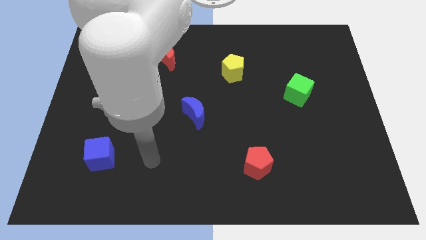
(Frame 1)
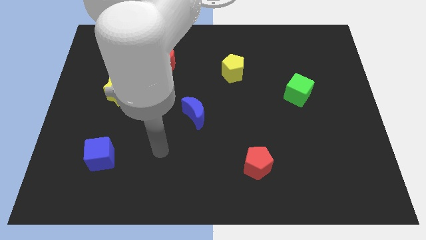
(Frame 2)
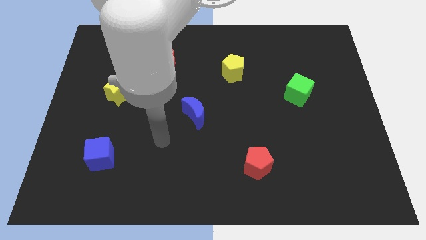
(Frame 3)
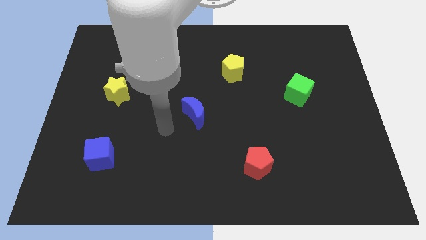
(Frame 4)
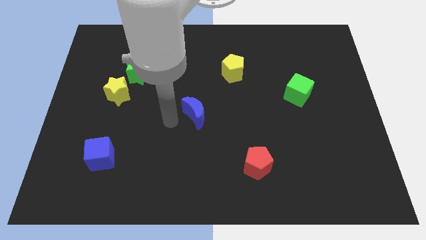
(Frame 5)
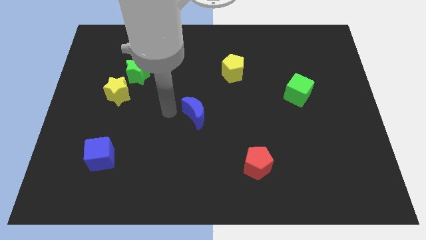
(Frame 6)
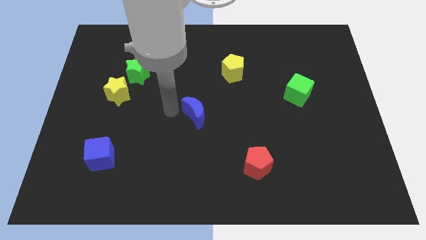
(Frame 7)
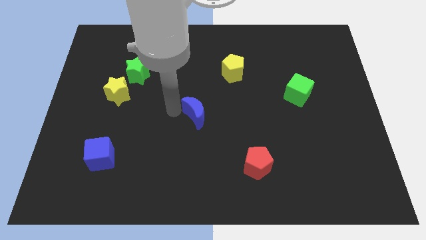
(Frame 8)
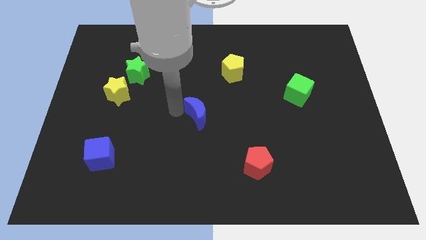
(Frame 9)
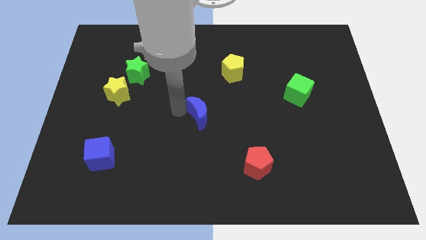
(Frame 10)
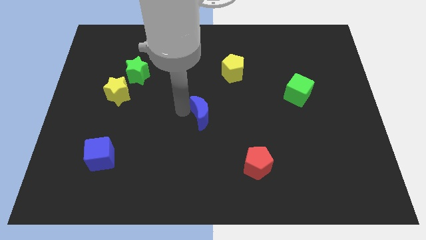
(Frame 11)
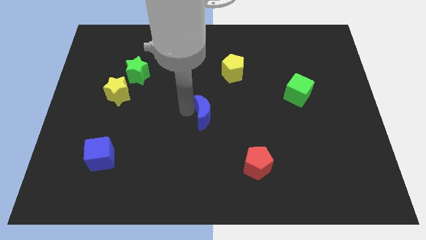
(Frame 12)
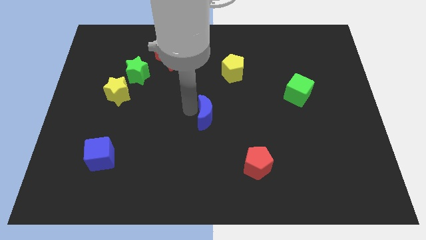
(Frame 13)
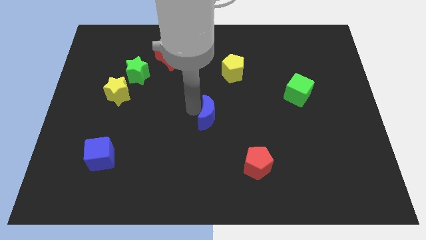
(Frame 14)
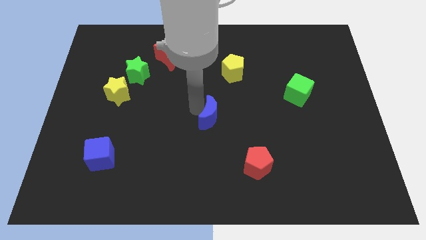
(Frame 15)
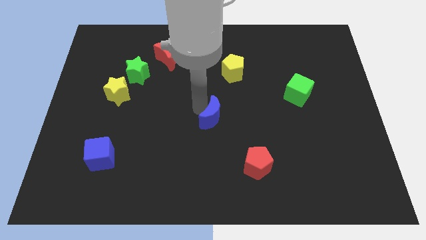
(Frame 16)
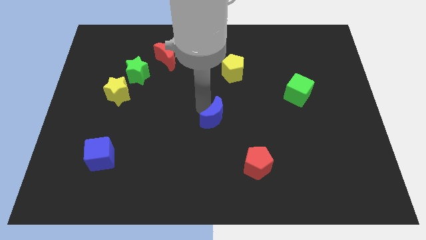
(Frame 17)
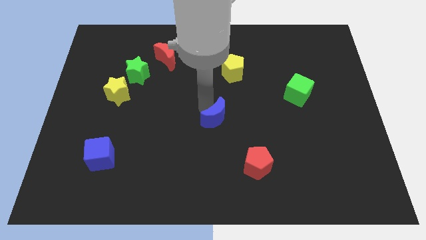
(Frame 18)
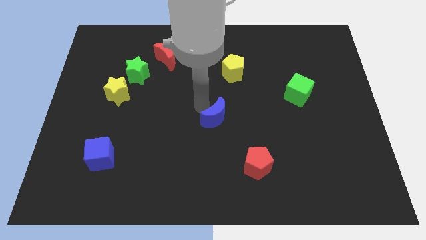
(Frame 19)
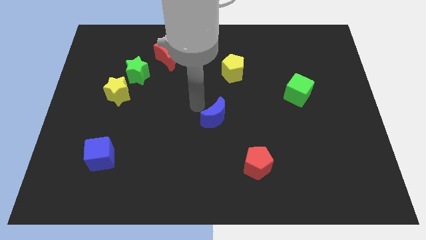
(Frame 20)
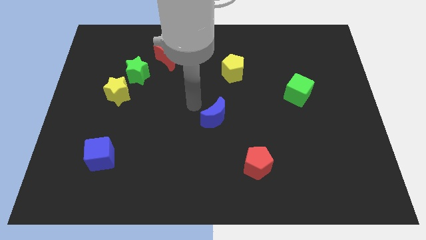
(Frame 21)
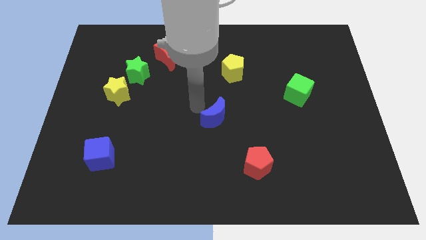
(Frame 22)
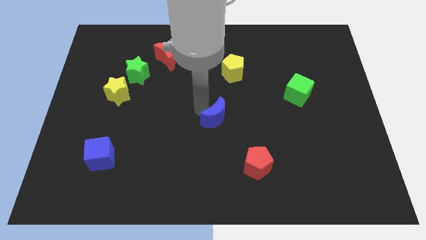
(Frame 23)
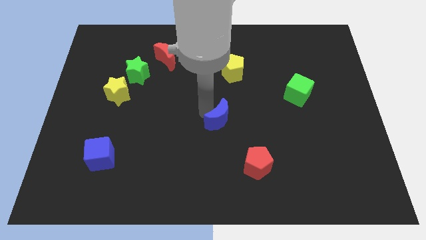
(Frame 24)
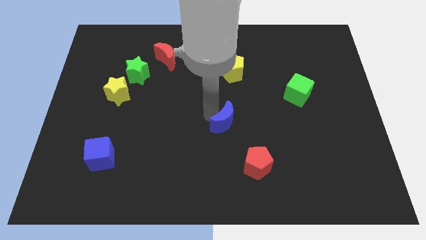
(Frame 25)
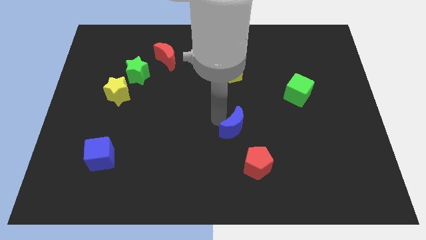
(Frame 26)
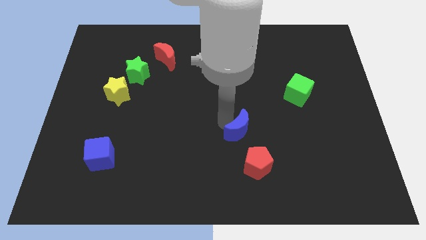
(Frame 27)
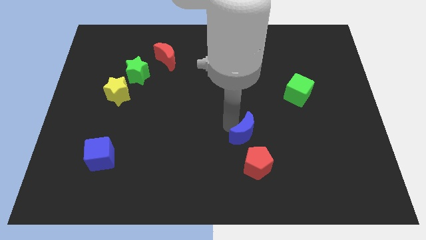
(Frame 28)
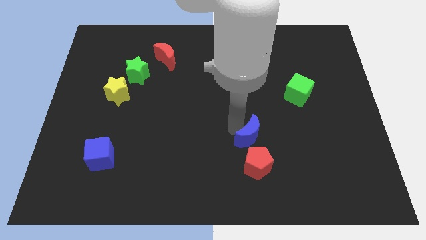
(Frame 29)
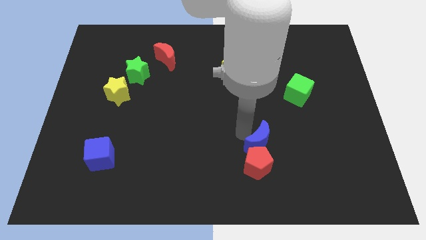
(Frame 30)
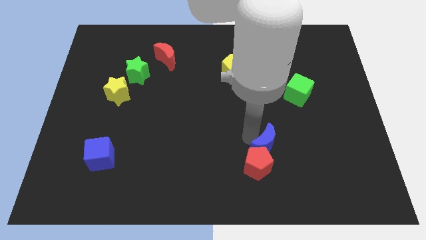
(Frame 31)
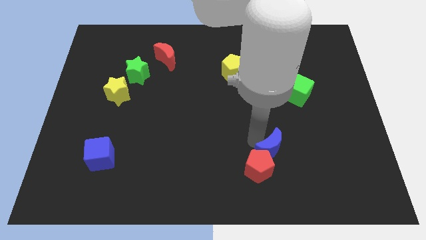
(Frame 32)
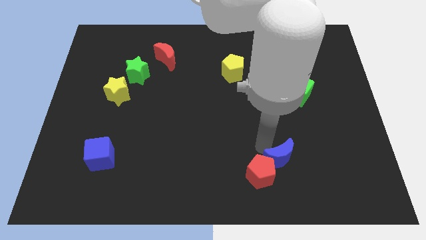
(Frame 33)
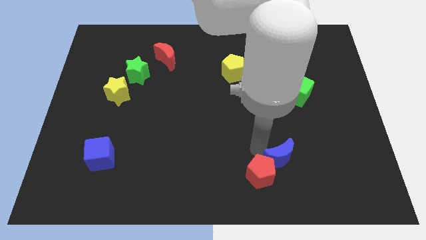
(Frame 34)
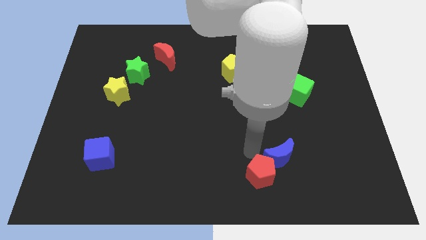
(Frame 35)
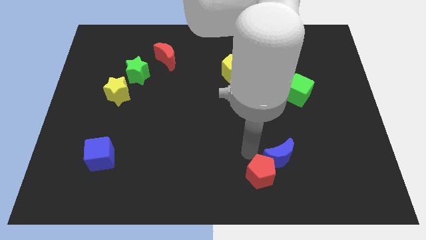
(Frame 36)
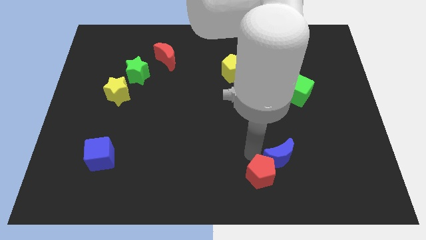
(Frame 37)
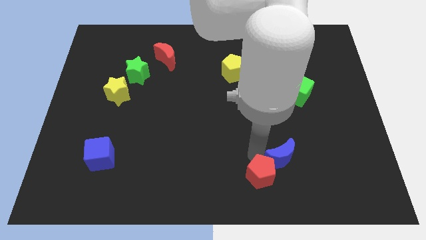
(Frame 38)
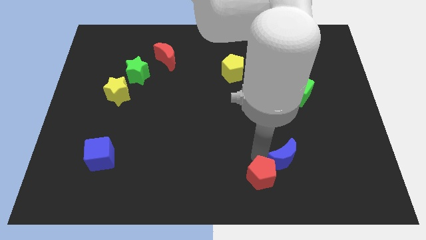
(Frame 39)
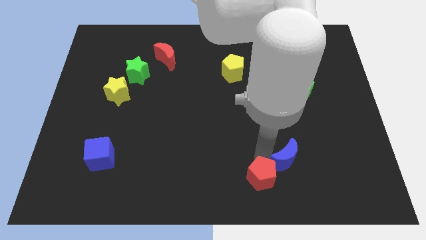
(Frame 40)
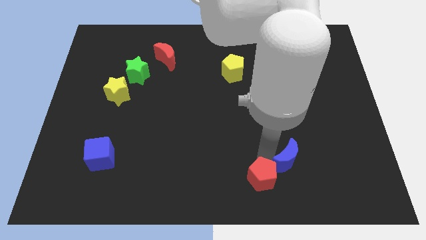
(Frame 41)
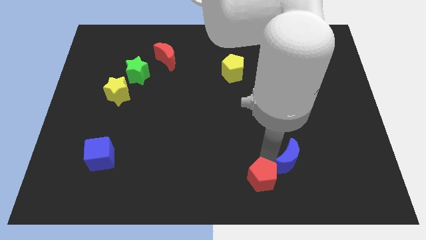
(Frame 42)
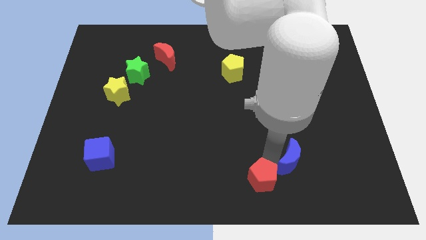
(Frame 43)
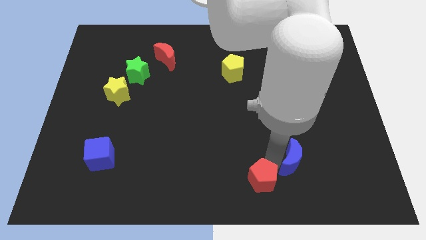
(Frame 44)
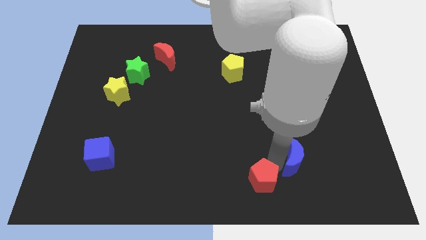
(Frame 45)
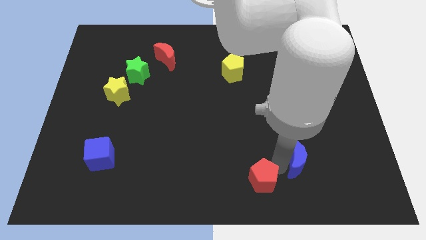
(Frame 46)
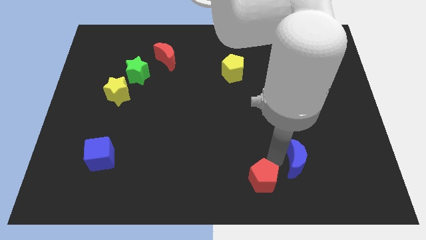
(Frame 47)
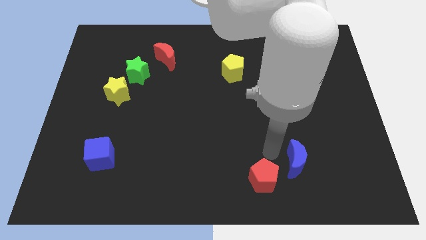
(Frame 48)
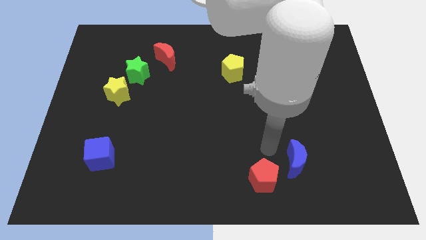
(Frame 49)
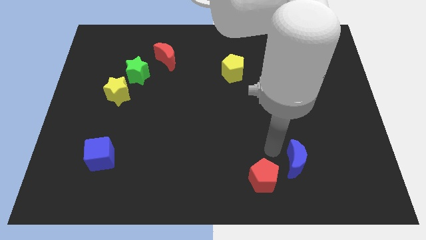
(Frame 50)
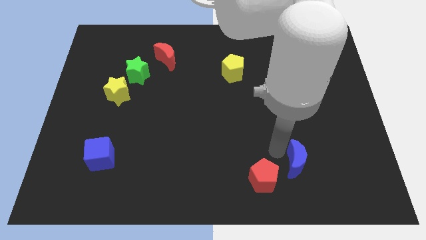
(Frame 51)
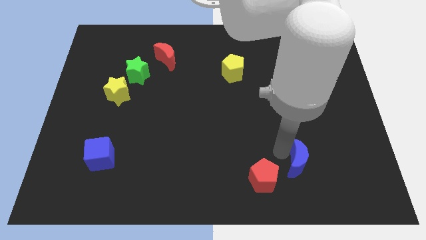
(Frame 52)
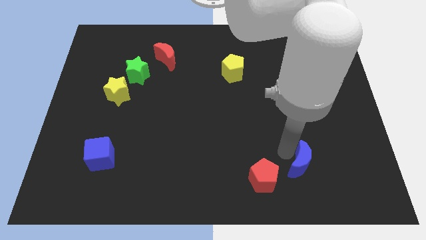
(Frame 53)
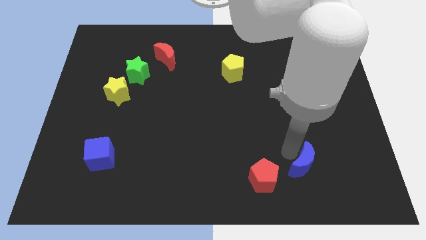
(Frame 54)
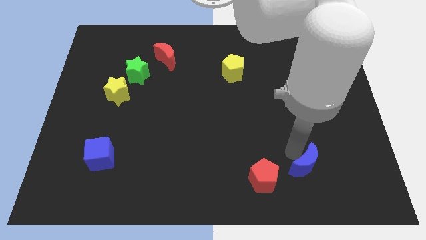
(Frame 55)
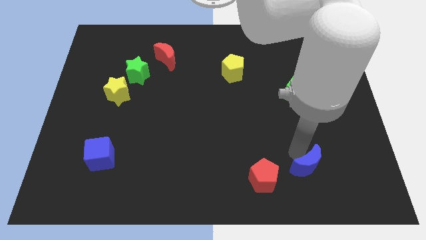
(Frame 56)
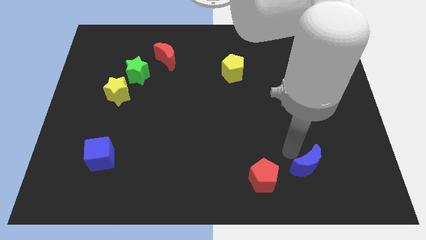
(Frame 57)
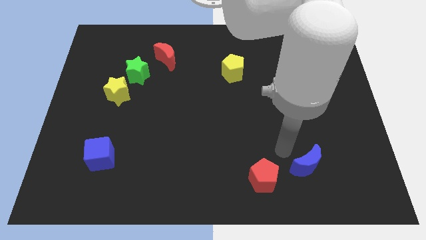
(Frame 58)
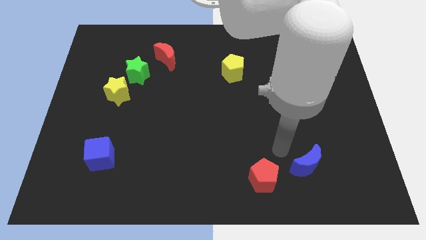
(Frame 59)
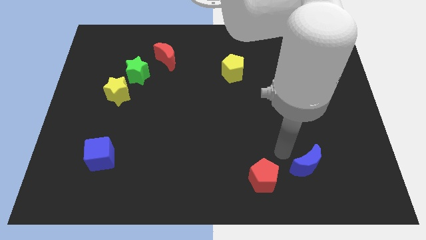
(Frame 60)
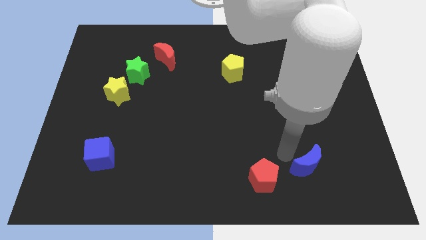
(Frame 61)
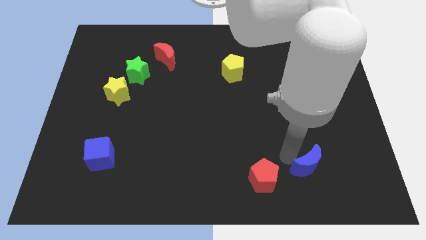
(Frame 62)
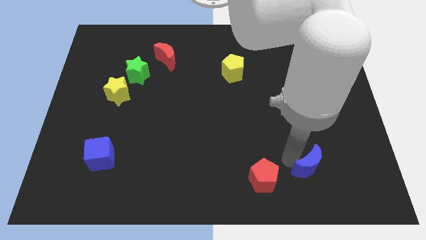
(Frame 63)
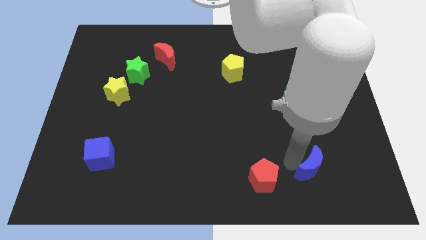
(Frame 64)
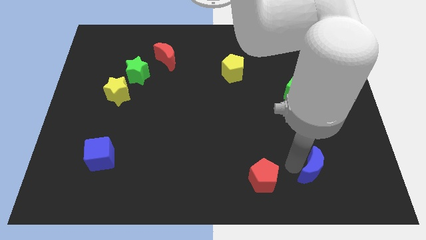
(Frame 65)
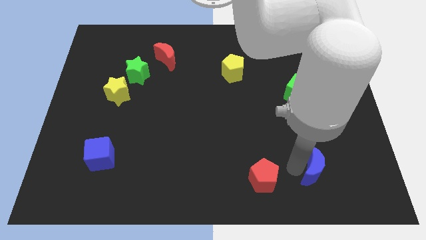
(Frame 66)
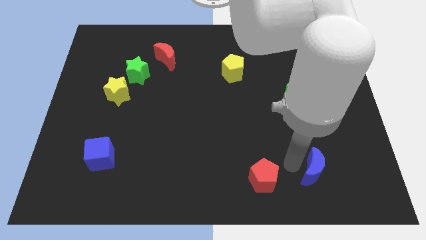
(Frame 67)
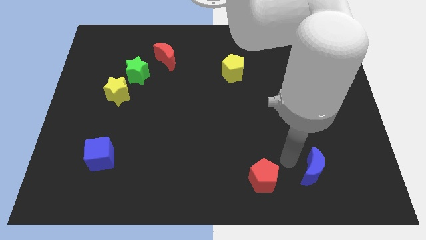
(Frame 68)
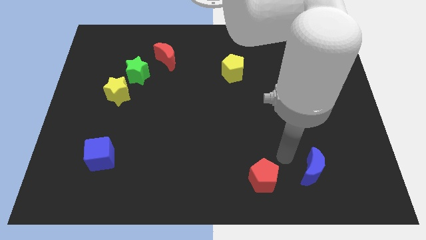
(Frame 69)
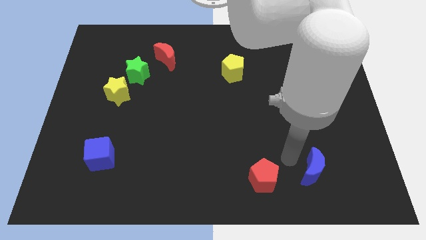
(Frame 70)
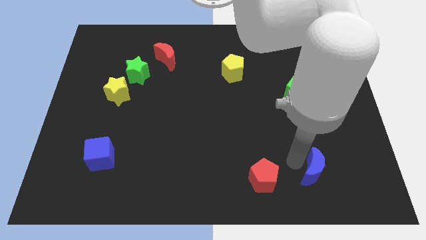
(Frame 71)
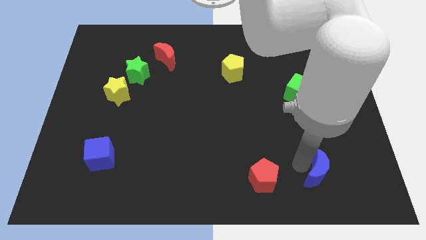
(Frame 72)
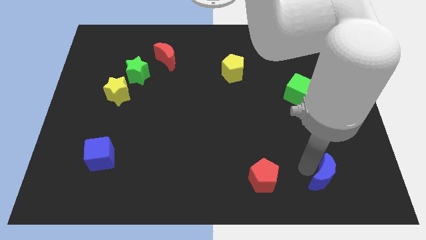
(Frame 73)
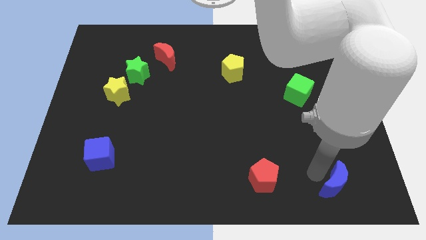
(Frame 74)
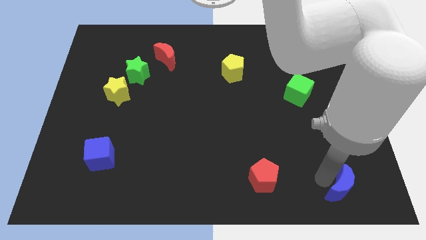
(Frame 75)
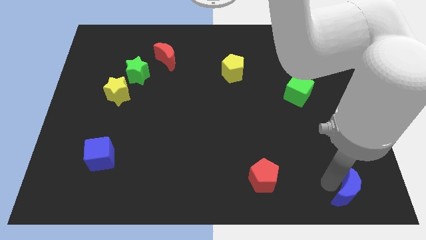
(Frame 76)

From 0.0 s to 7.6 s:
slide the blue moon to the bottom right
